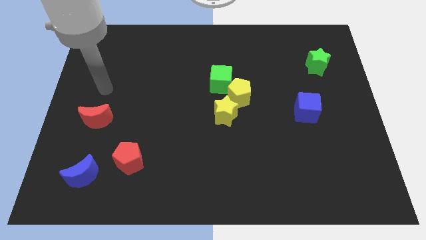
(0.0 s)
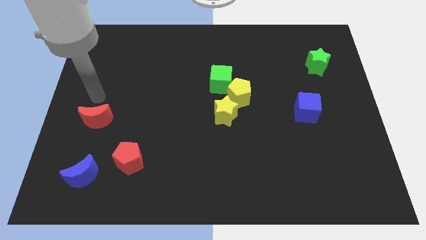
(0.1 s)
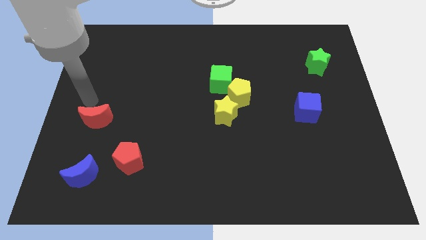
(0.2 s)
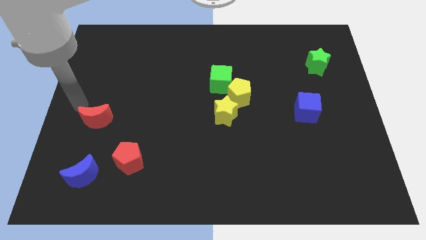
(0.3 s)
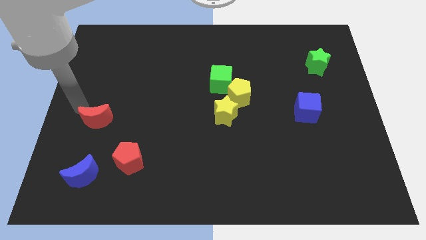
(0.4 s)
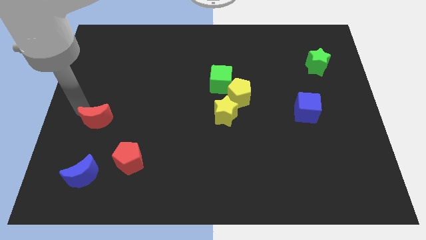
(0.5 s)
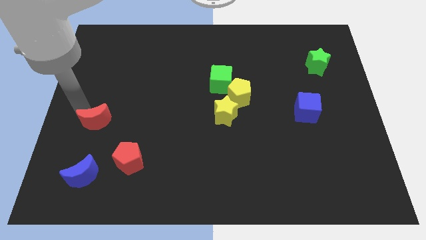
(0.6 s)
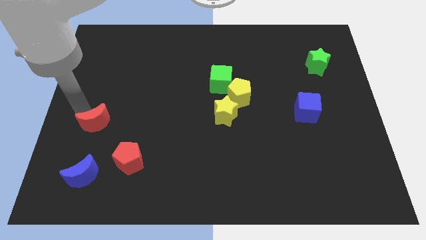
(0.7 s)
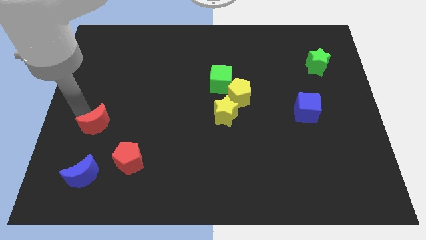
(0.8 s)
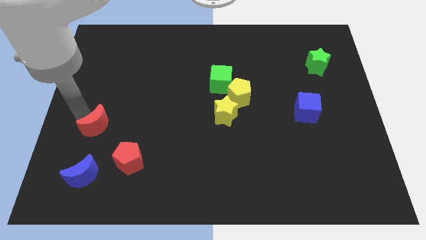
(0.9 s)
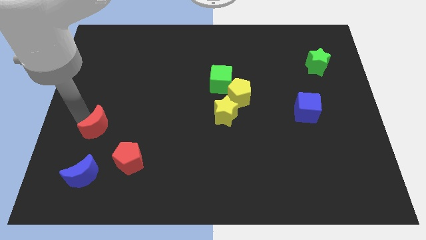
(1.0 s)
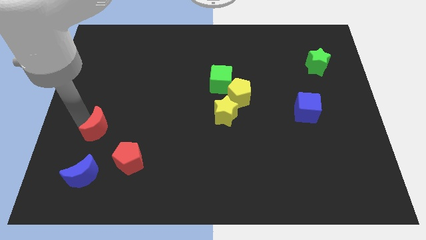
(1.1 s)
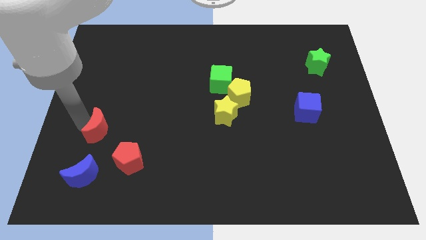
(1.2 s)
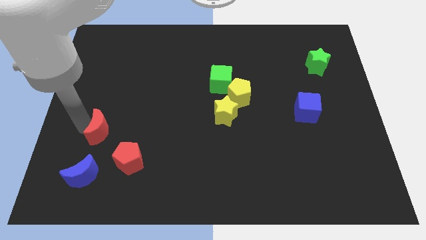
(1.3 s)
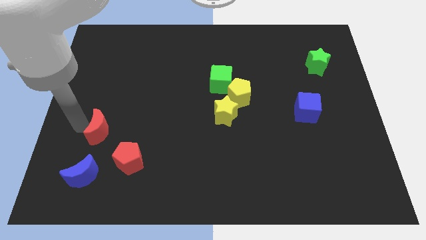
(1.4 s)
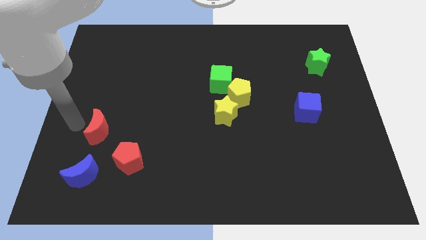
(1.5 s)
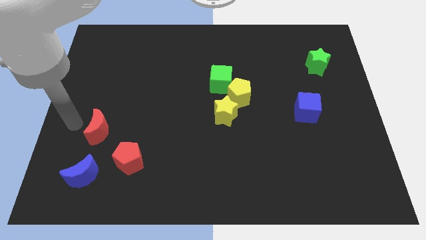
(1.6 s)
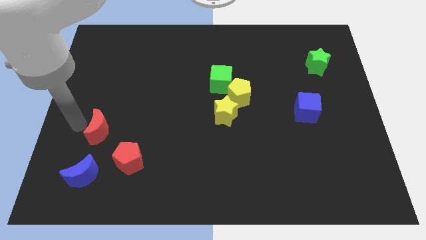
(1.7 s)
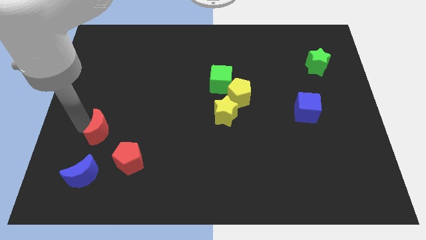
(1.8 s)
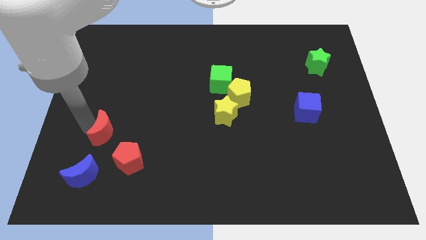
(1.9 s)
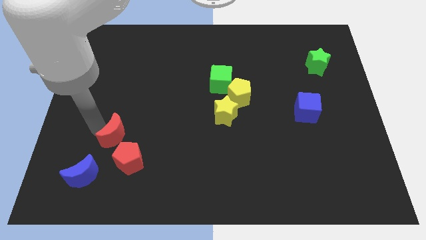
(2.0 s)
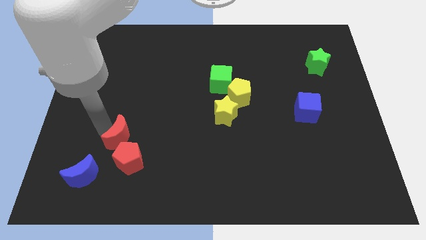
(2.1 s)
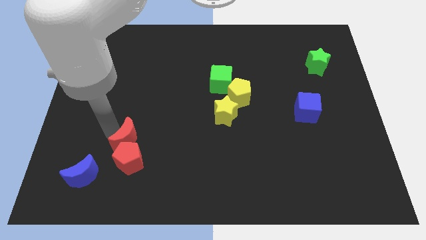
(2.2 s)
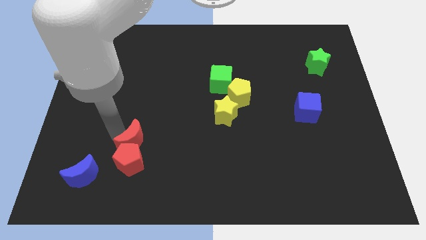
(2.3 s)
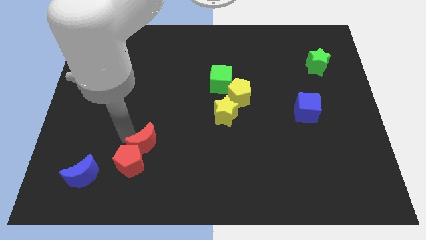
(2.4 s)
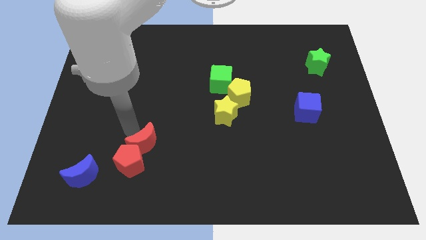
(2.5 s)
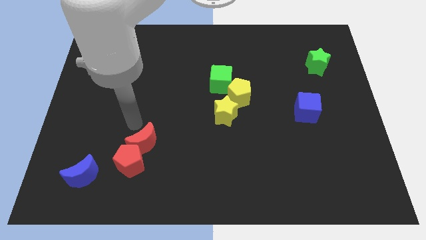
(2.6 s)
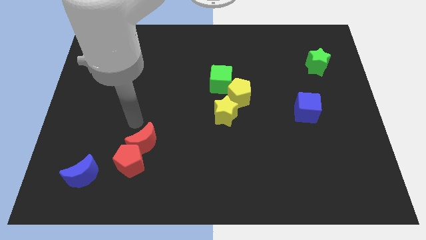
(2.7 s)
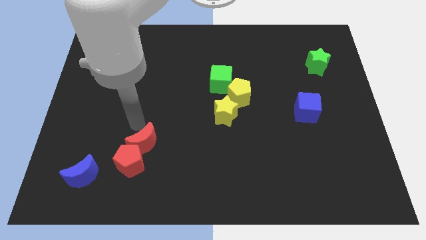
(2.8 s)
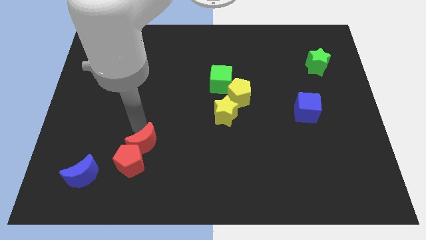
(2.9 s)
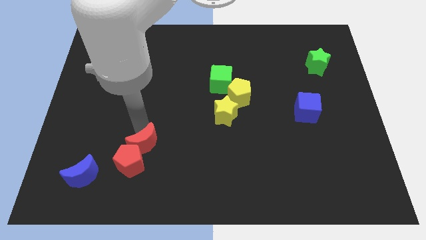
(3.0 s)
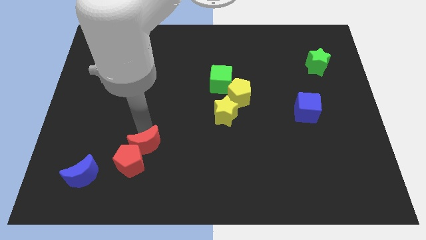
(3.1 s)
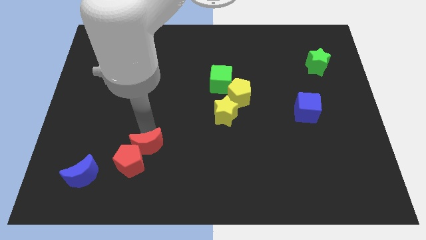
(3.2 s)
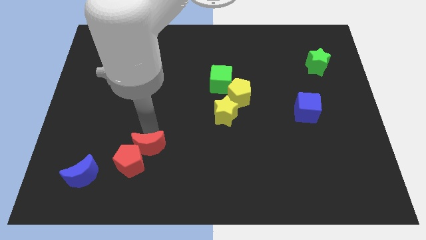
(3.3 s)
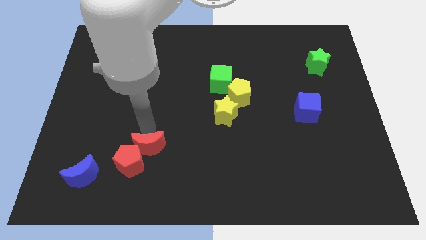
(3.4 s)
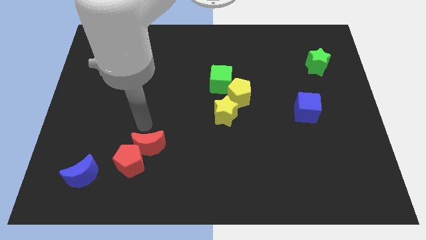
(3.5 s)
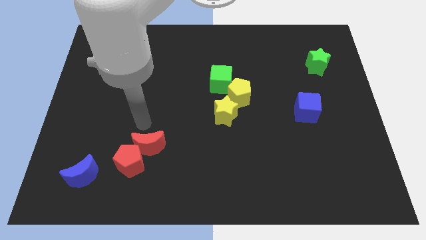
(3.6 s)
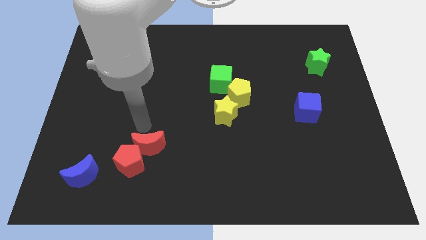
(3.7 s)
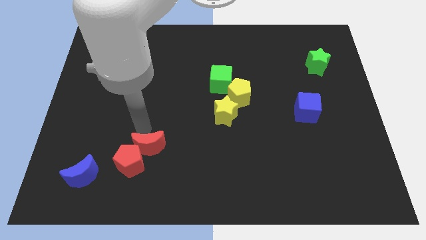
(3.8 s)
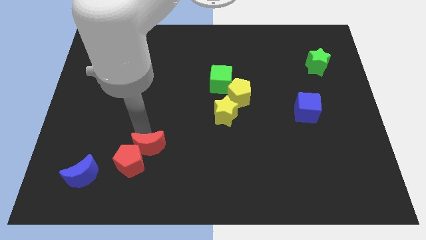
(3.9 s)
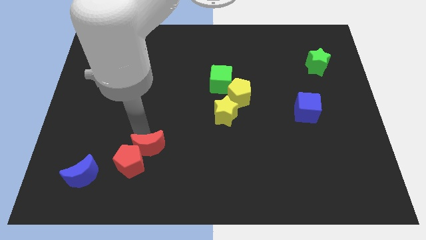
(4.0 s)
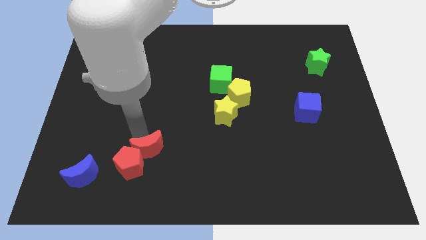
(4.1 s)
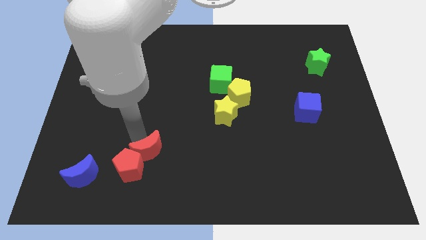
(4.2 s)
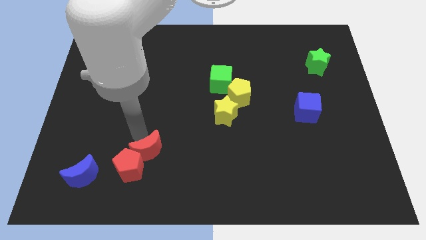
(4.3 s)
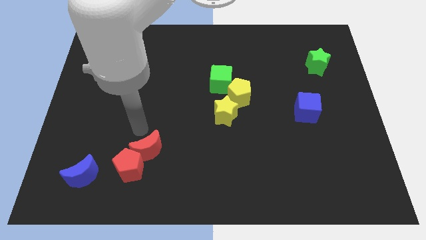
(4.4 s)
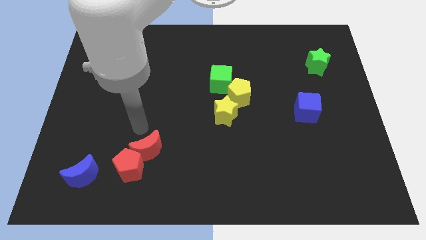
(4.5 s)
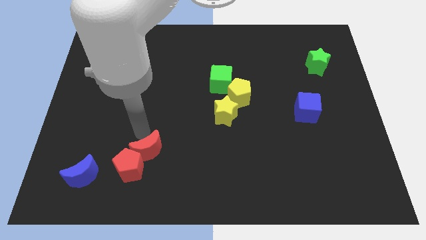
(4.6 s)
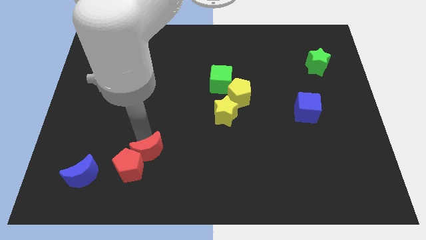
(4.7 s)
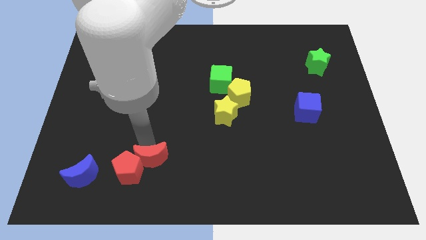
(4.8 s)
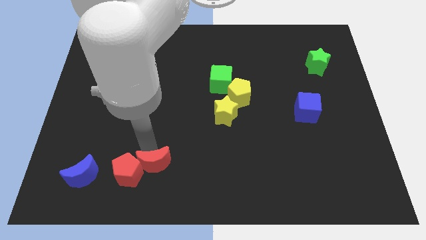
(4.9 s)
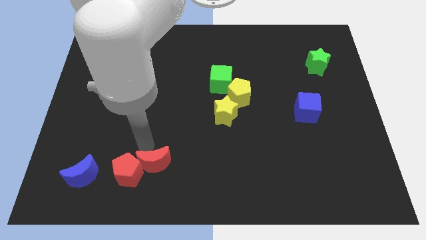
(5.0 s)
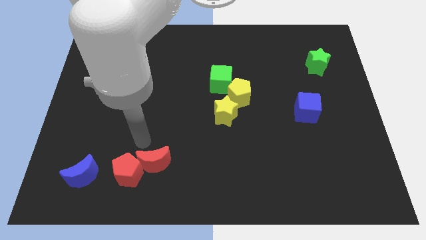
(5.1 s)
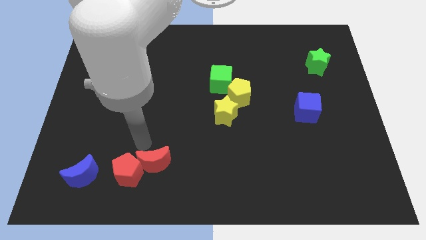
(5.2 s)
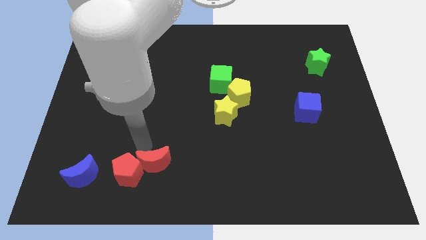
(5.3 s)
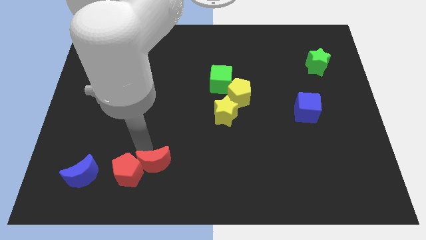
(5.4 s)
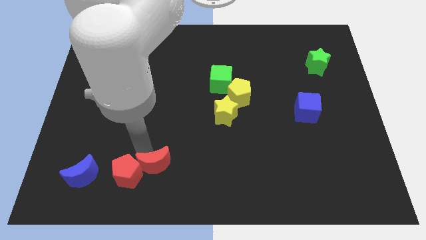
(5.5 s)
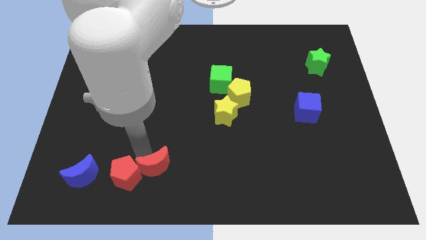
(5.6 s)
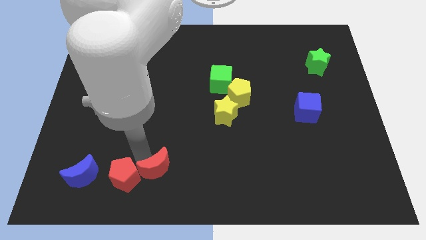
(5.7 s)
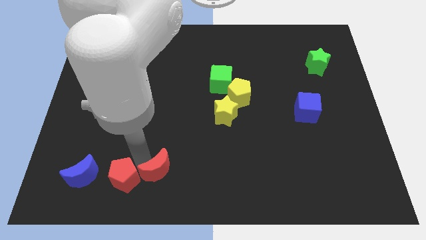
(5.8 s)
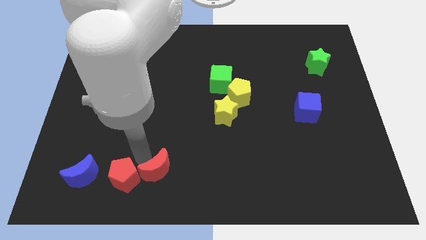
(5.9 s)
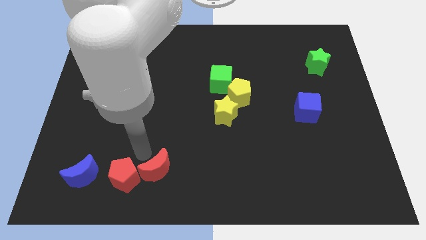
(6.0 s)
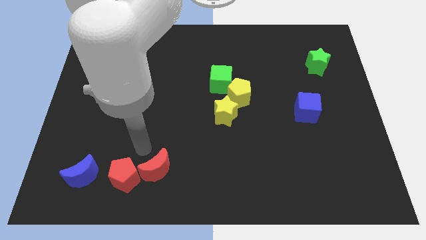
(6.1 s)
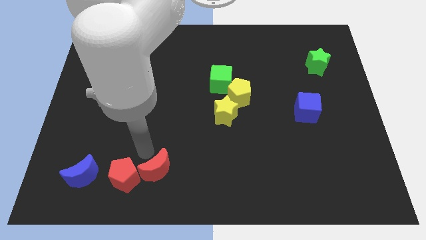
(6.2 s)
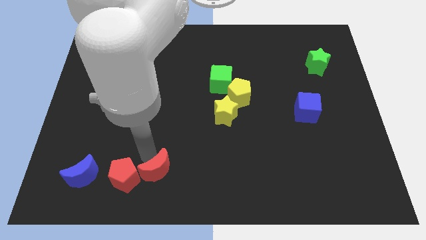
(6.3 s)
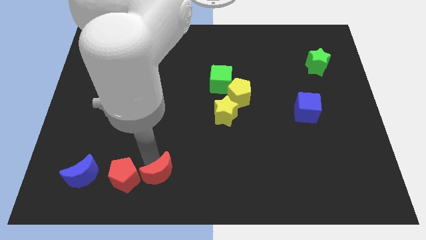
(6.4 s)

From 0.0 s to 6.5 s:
move the red moon to the bottom side
